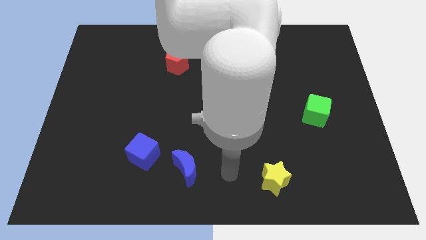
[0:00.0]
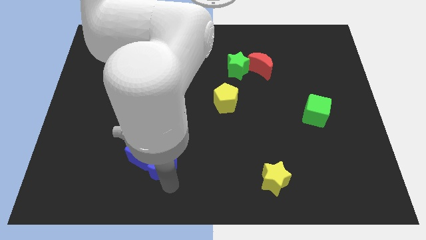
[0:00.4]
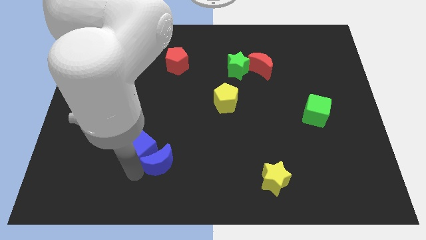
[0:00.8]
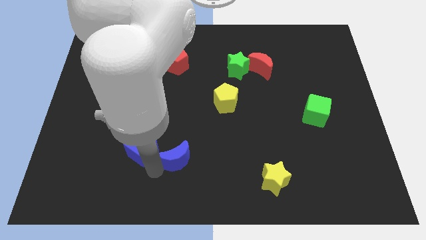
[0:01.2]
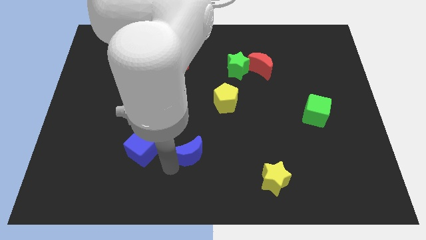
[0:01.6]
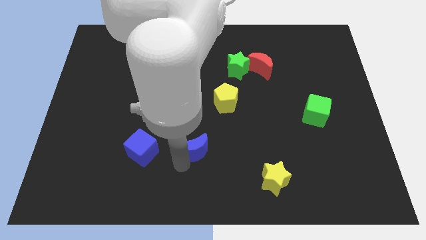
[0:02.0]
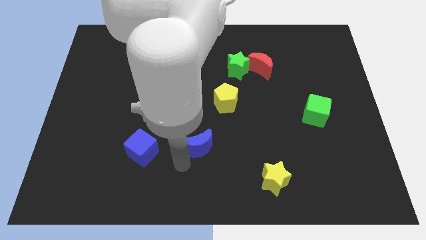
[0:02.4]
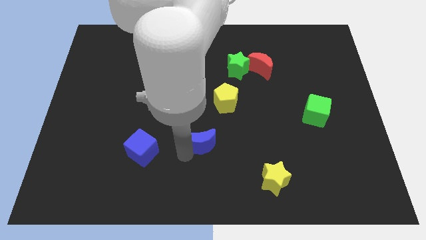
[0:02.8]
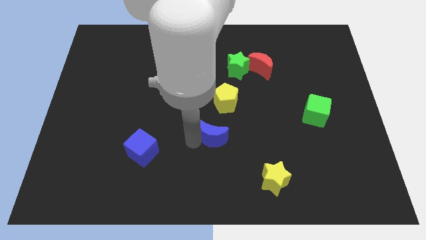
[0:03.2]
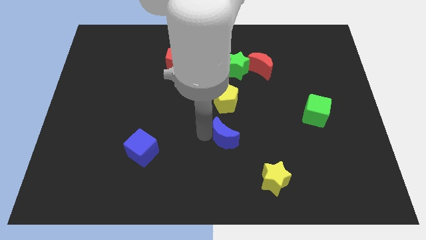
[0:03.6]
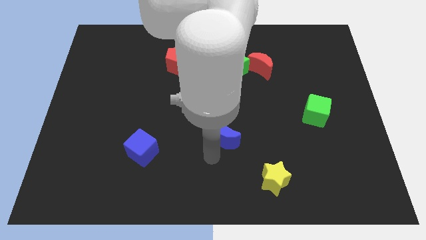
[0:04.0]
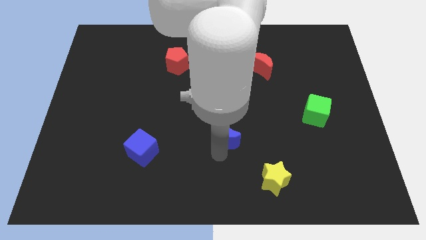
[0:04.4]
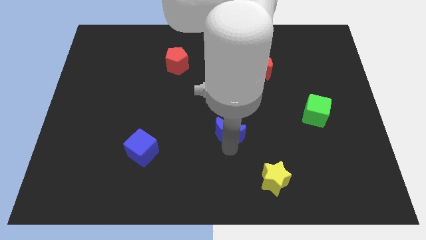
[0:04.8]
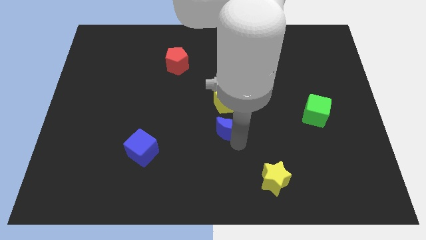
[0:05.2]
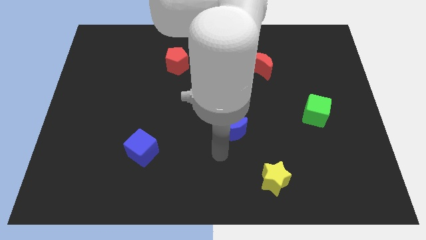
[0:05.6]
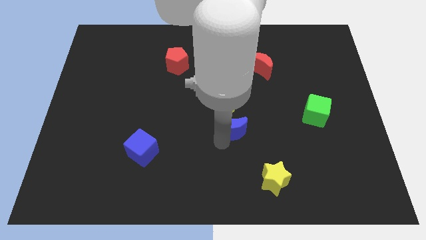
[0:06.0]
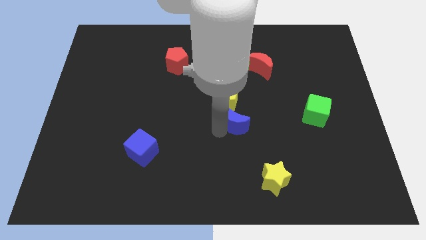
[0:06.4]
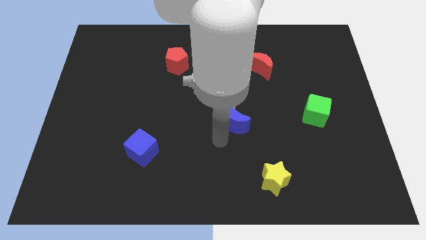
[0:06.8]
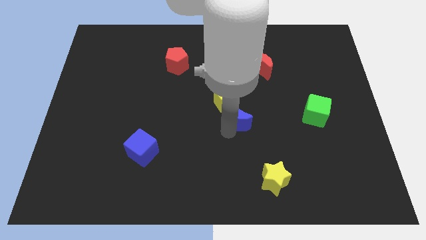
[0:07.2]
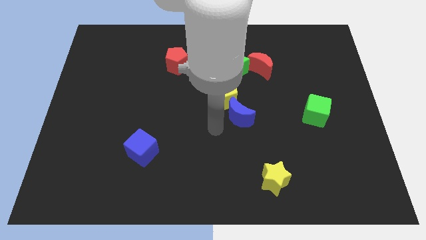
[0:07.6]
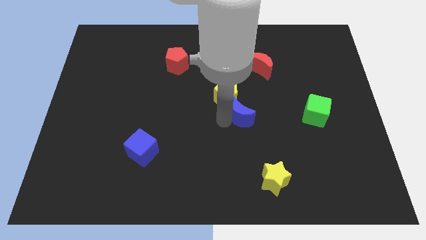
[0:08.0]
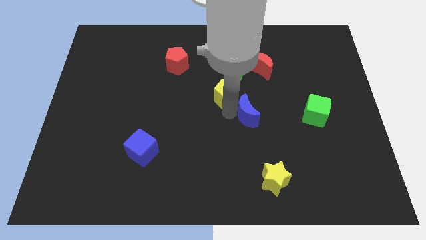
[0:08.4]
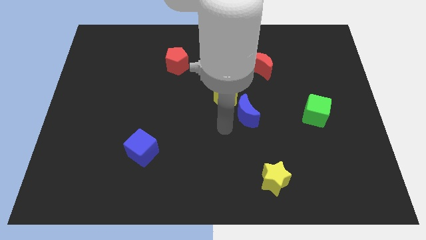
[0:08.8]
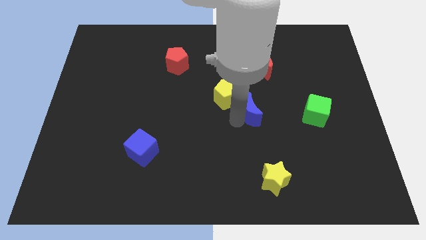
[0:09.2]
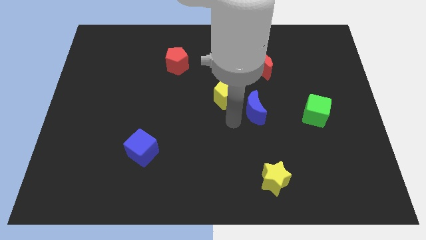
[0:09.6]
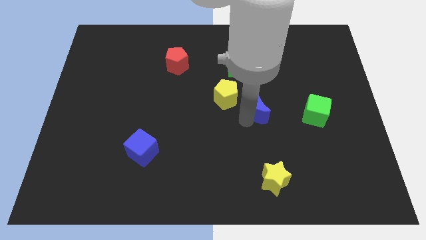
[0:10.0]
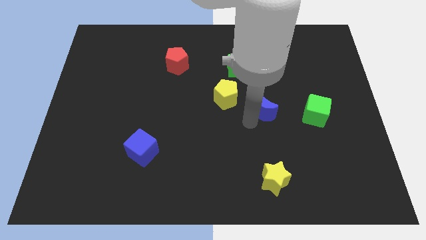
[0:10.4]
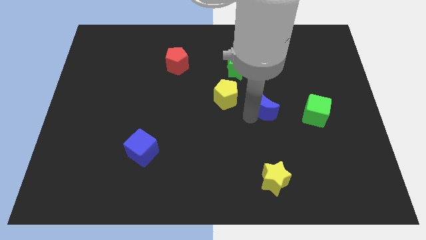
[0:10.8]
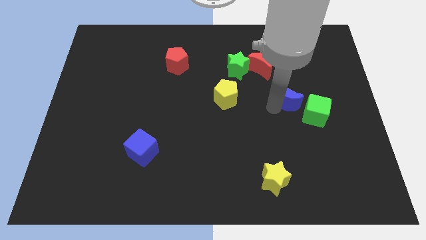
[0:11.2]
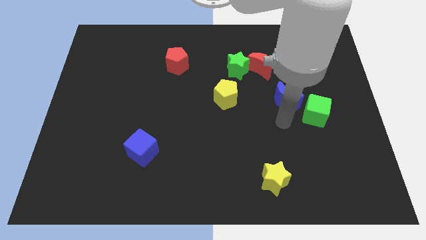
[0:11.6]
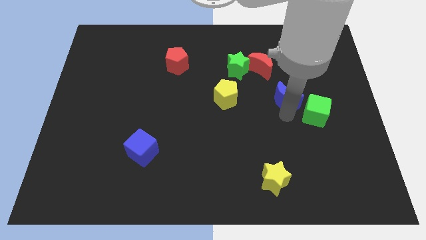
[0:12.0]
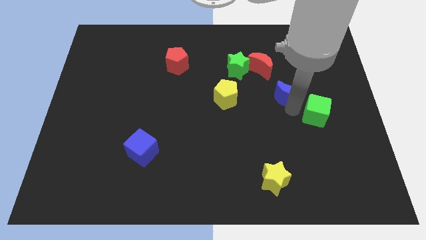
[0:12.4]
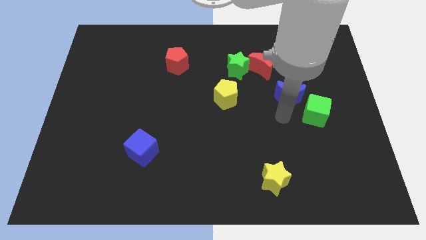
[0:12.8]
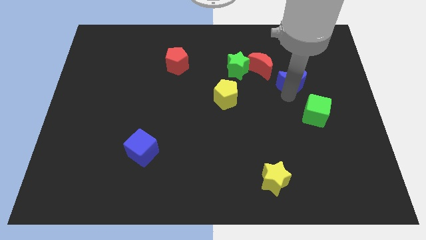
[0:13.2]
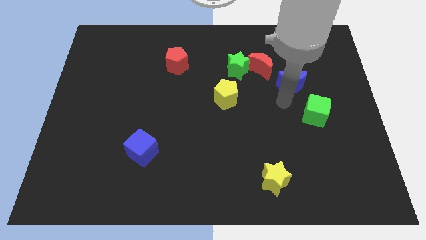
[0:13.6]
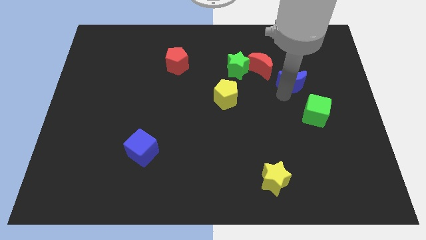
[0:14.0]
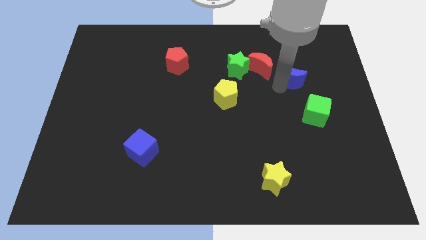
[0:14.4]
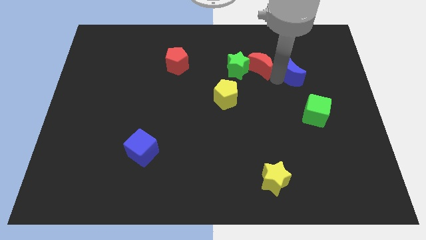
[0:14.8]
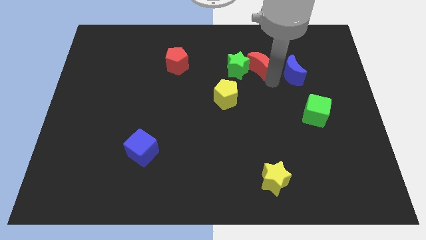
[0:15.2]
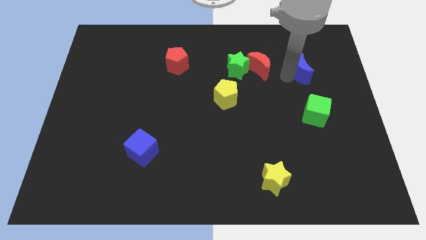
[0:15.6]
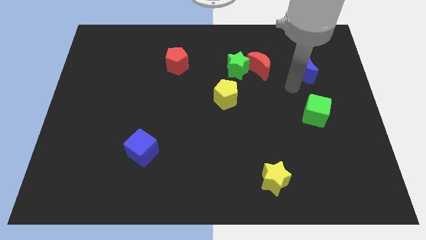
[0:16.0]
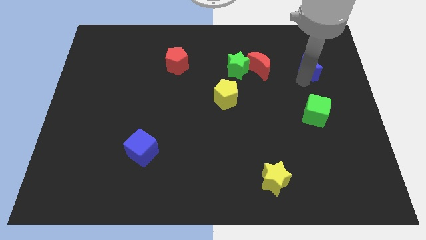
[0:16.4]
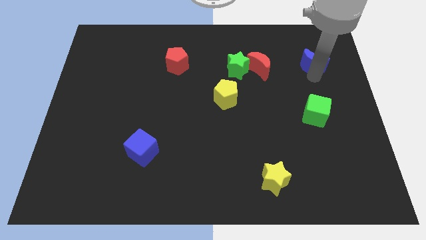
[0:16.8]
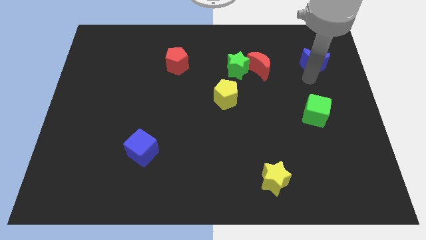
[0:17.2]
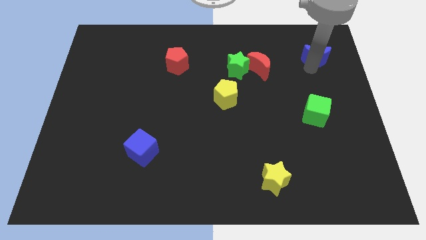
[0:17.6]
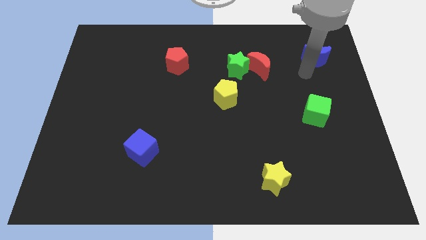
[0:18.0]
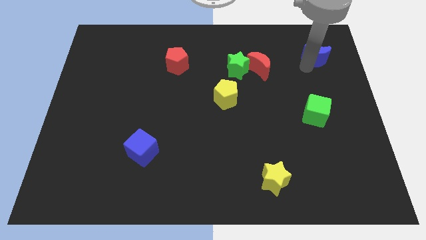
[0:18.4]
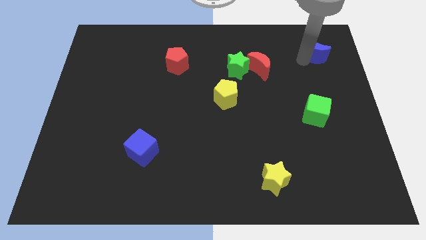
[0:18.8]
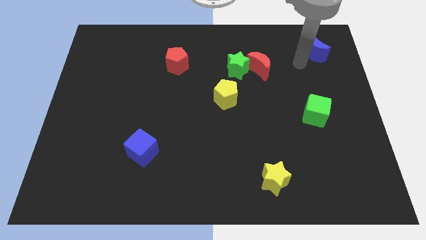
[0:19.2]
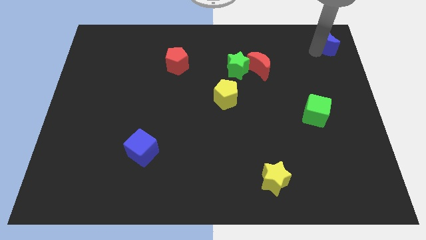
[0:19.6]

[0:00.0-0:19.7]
move the blue moon to the top right corner
